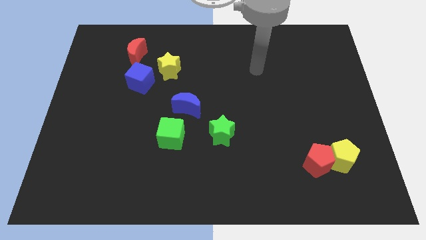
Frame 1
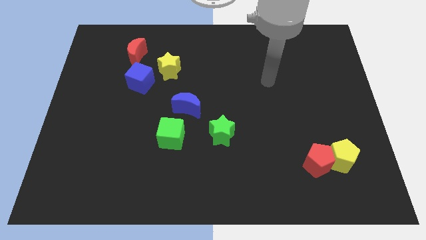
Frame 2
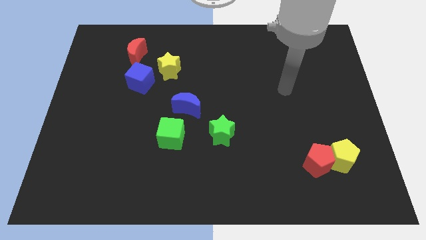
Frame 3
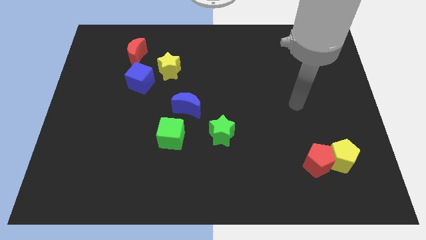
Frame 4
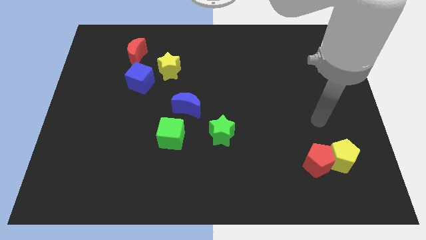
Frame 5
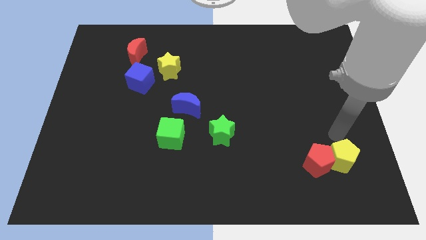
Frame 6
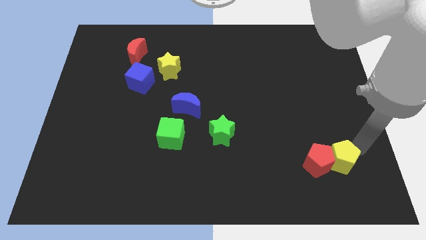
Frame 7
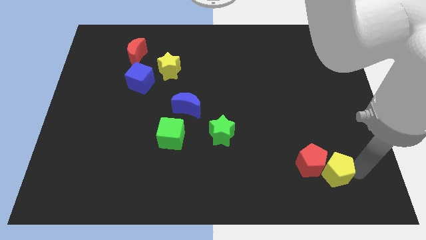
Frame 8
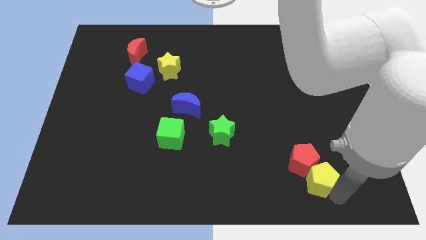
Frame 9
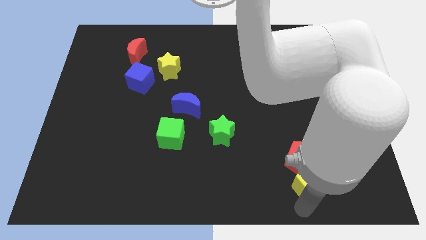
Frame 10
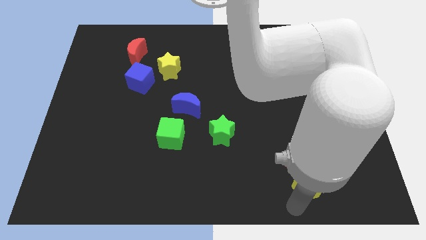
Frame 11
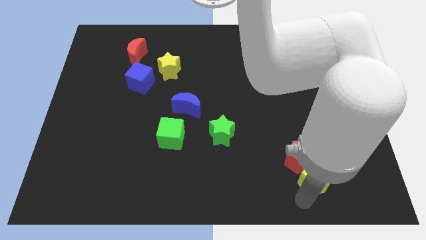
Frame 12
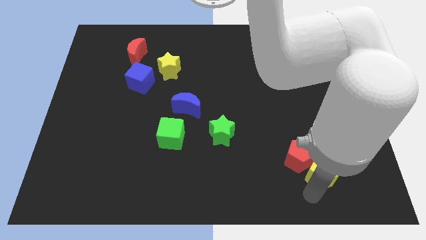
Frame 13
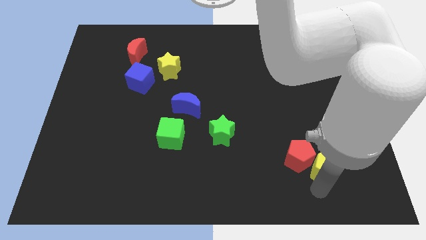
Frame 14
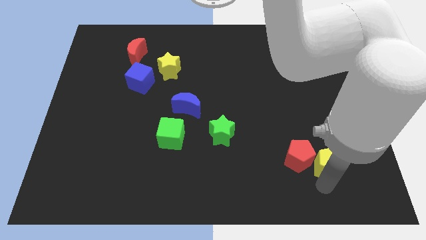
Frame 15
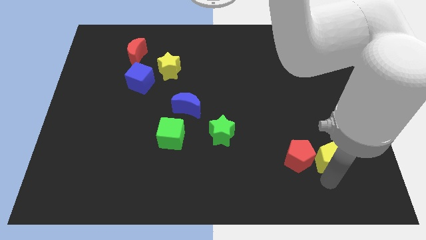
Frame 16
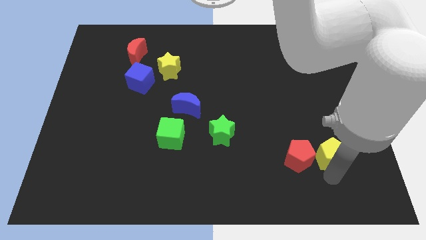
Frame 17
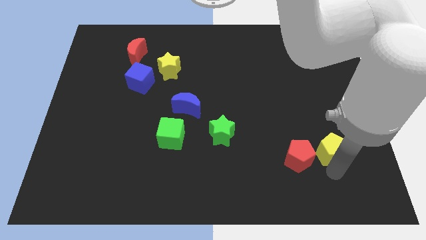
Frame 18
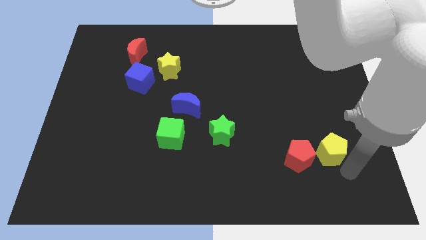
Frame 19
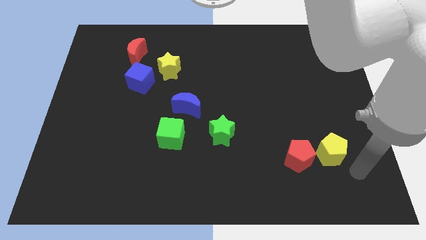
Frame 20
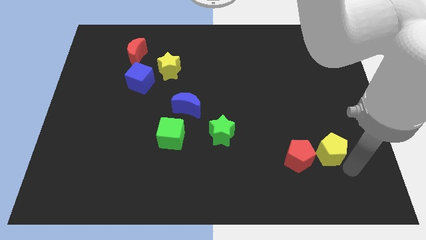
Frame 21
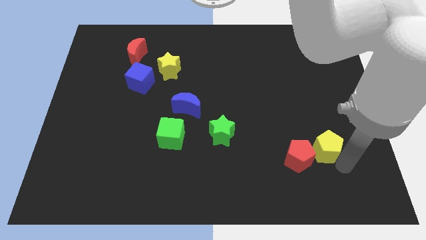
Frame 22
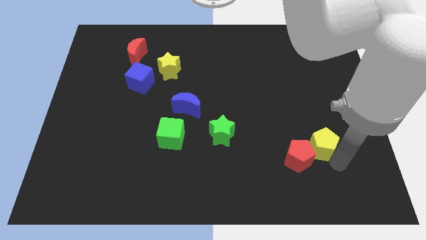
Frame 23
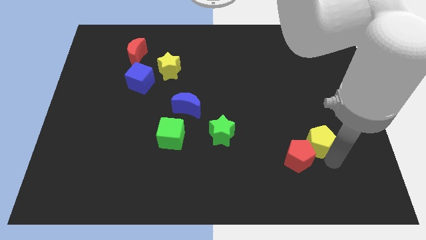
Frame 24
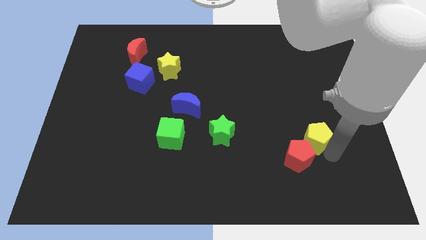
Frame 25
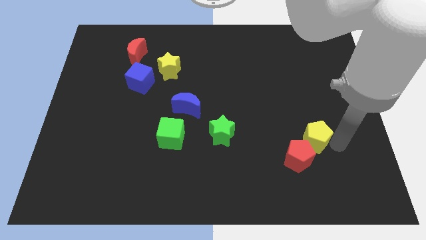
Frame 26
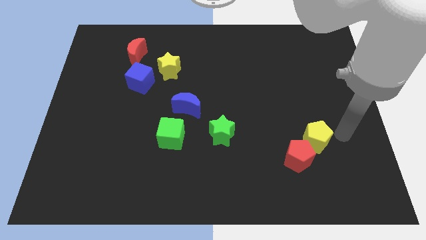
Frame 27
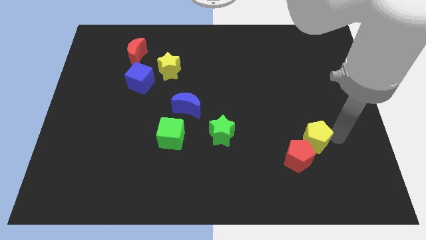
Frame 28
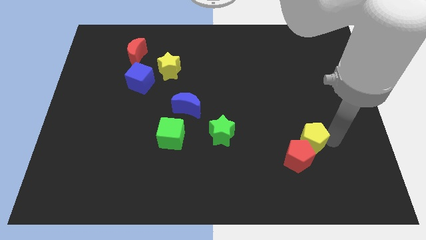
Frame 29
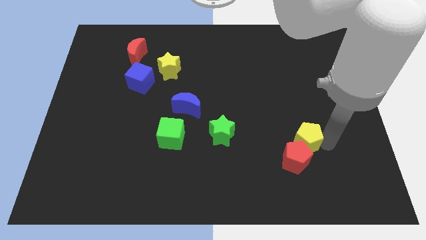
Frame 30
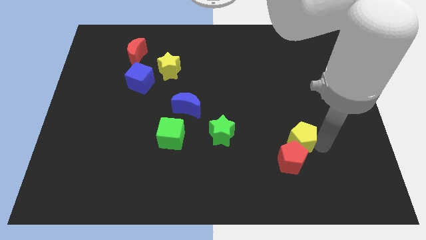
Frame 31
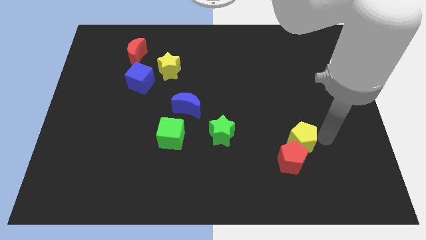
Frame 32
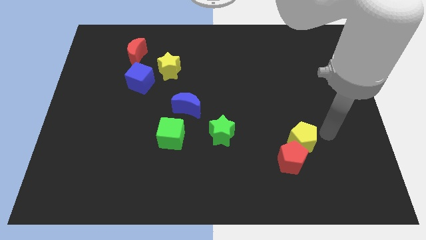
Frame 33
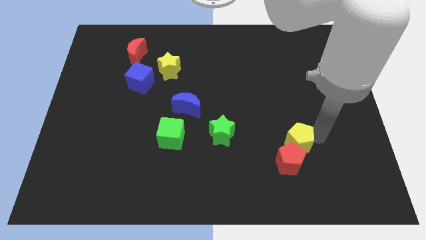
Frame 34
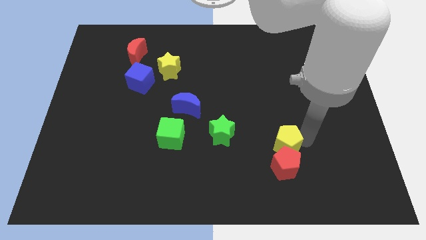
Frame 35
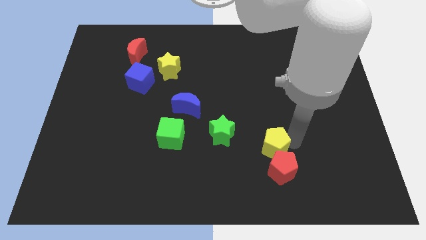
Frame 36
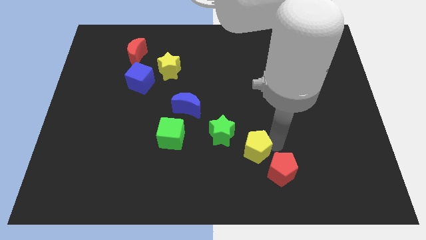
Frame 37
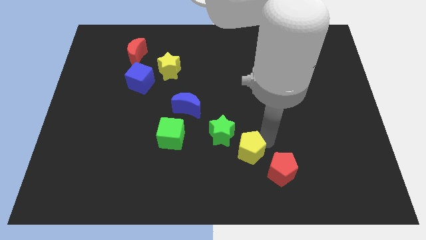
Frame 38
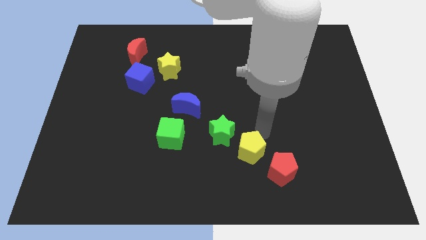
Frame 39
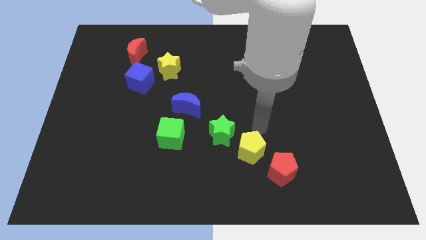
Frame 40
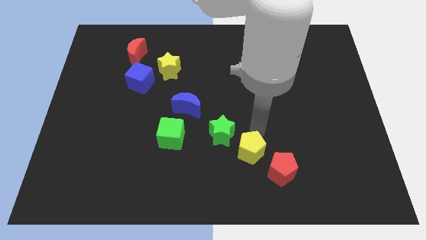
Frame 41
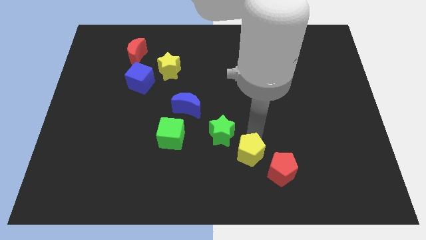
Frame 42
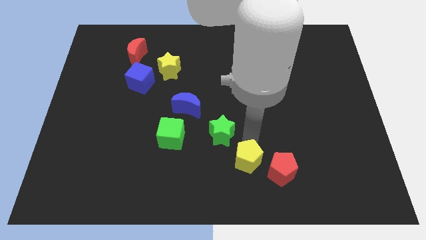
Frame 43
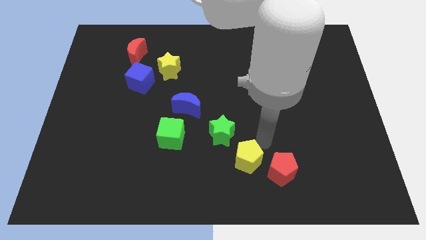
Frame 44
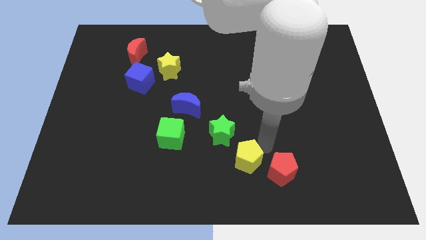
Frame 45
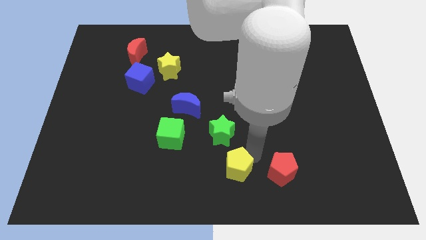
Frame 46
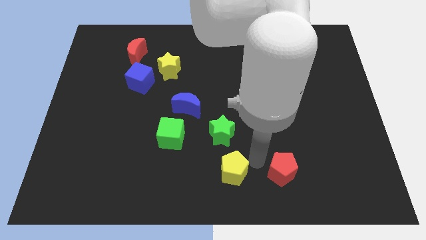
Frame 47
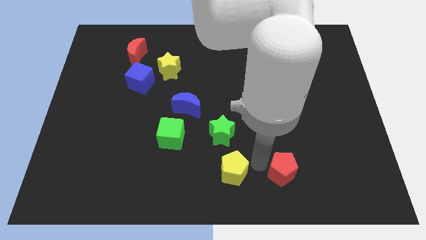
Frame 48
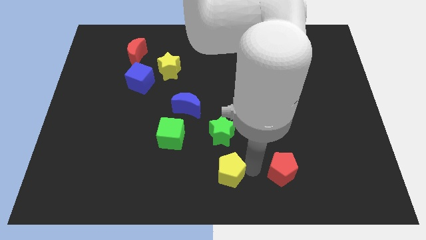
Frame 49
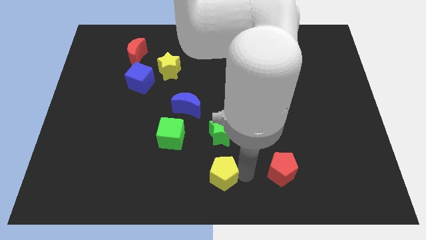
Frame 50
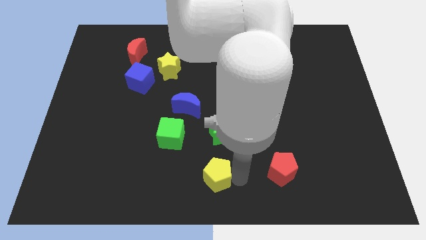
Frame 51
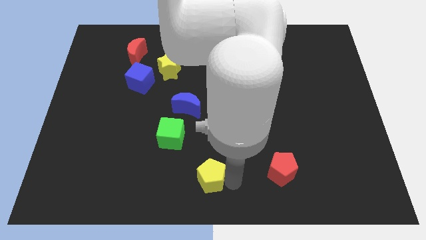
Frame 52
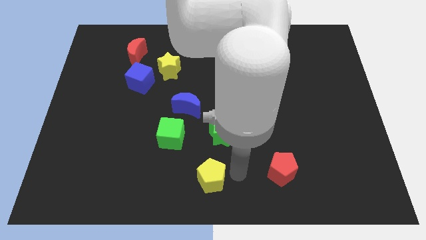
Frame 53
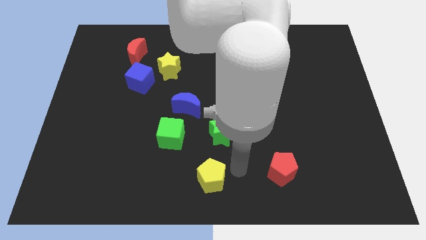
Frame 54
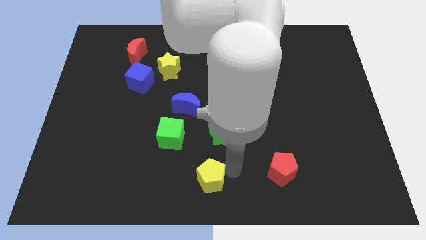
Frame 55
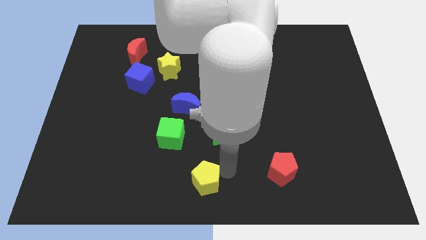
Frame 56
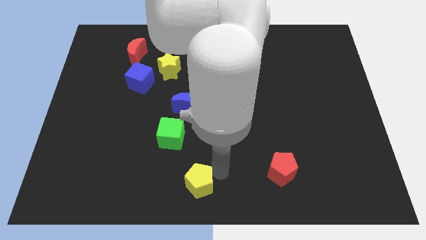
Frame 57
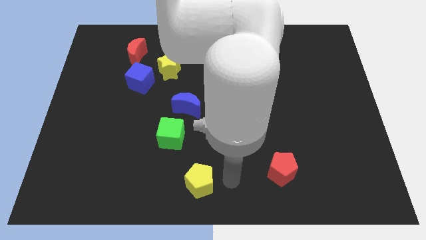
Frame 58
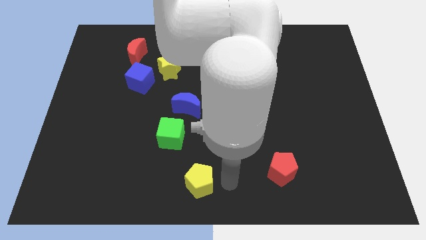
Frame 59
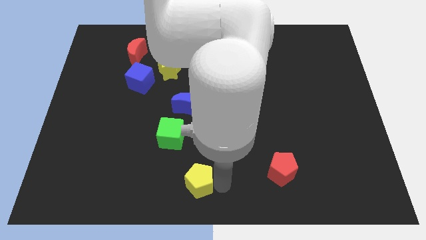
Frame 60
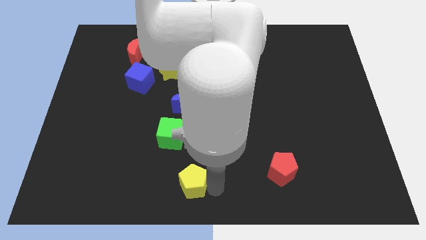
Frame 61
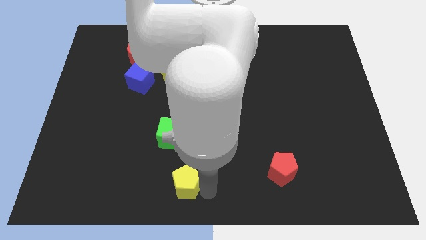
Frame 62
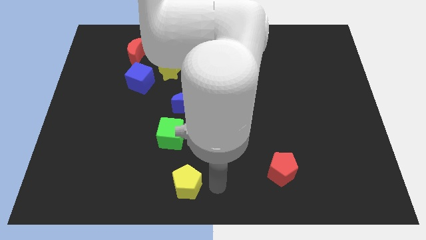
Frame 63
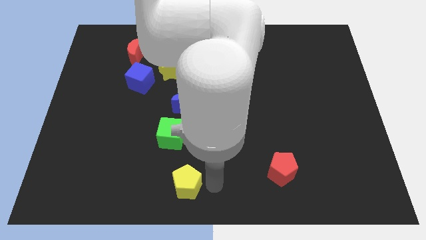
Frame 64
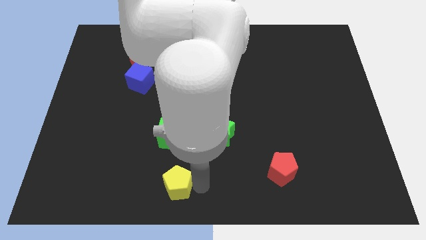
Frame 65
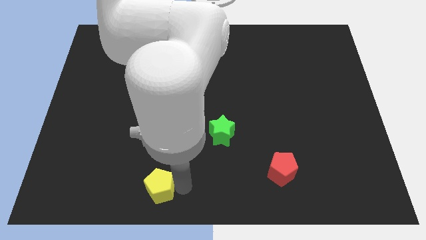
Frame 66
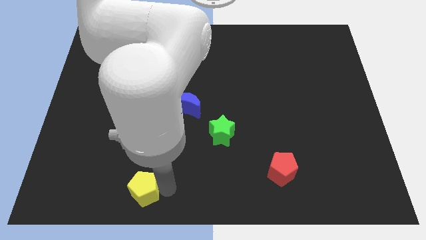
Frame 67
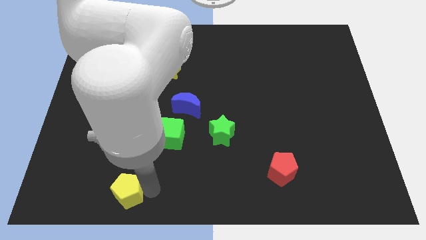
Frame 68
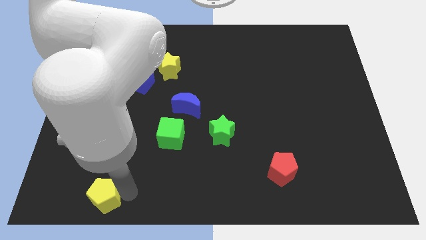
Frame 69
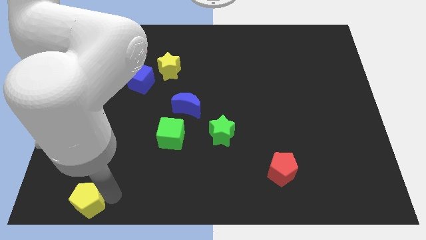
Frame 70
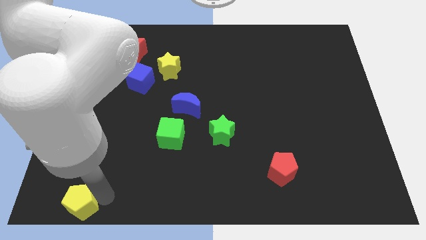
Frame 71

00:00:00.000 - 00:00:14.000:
move the yellow pentagon to the bottom left corner
